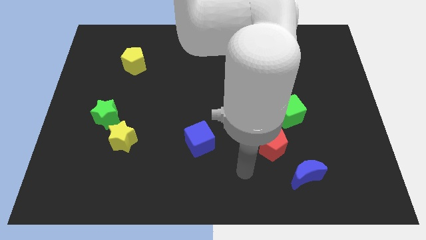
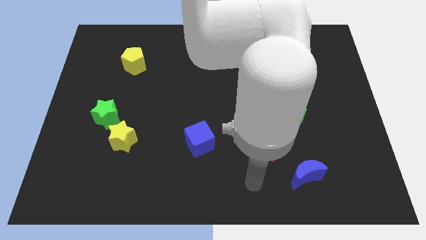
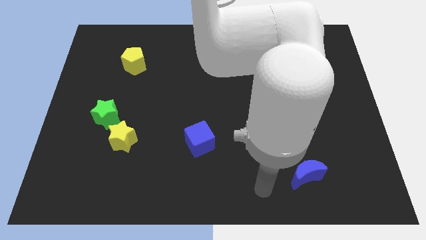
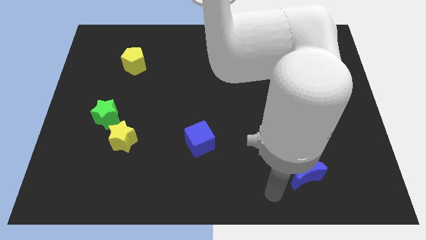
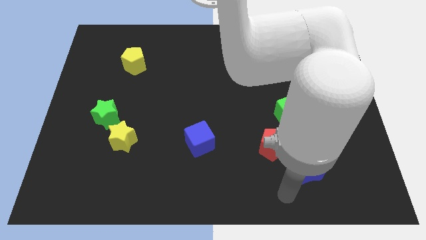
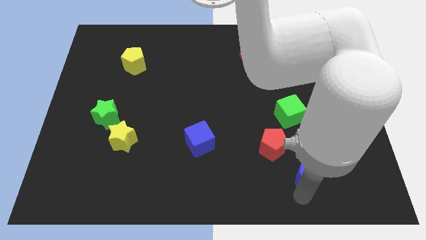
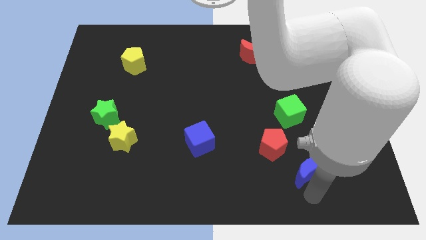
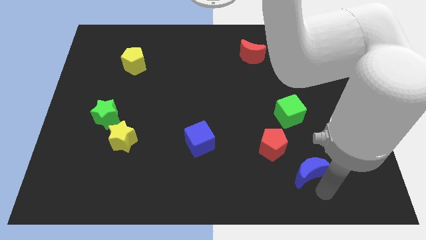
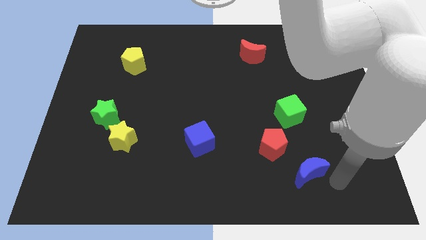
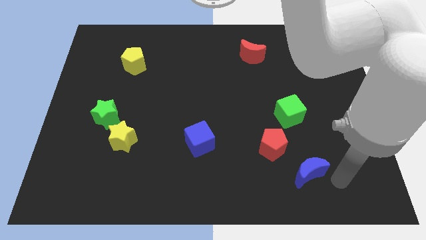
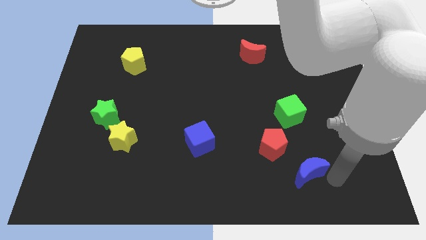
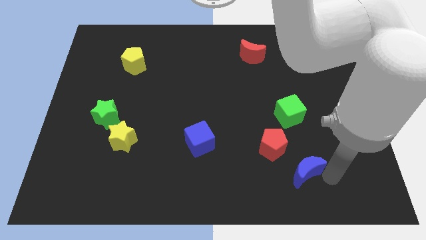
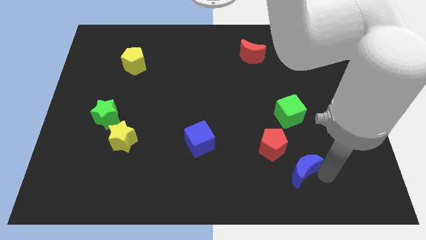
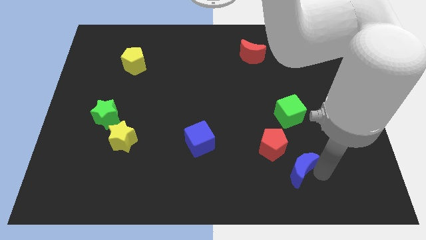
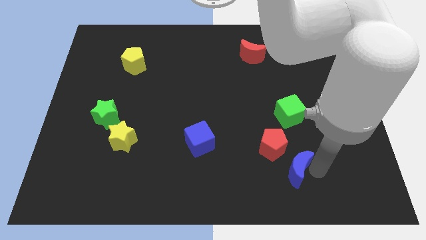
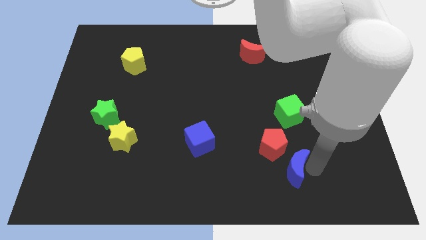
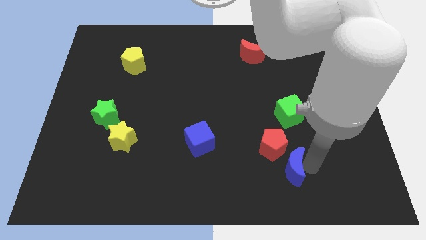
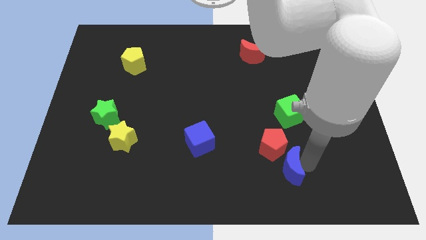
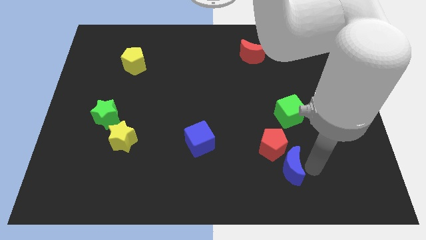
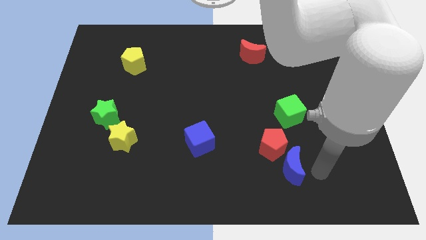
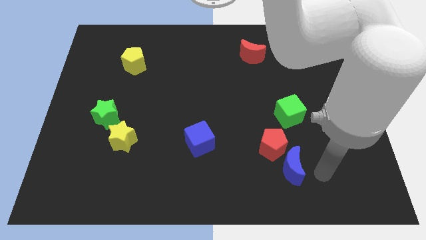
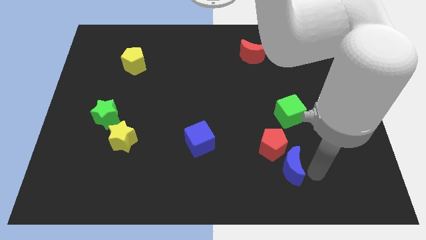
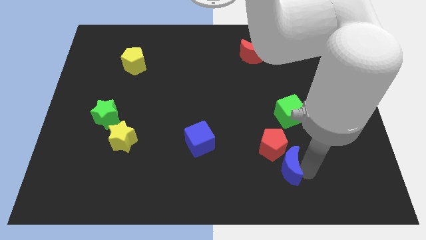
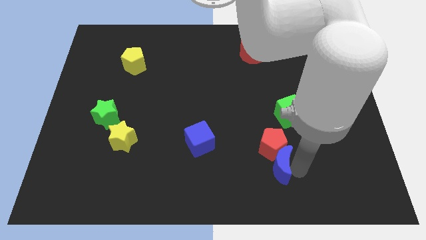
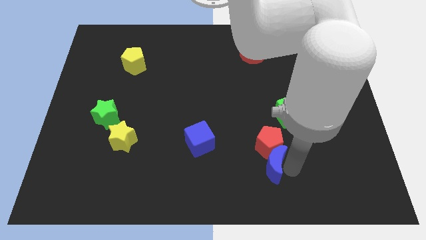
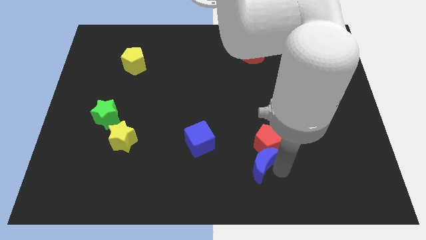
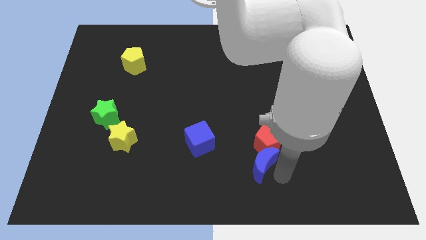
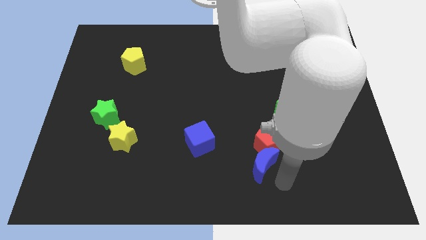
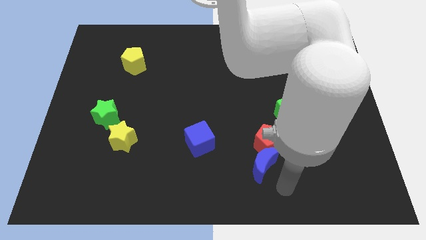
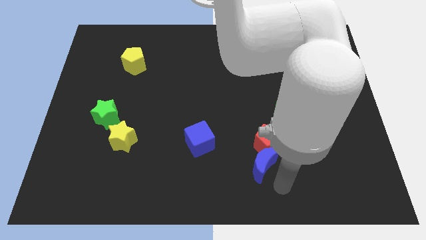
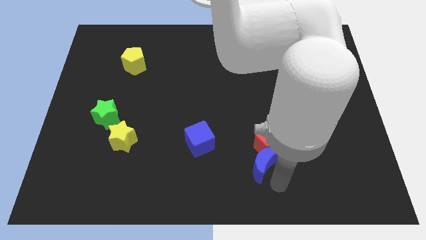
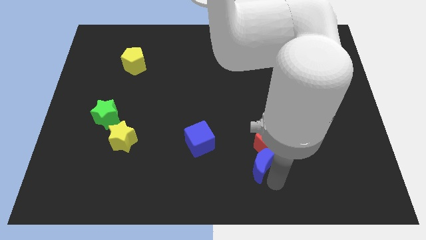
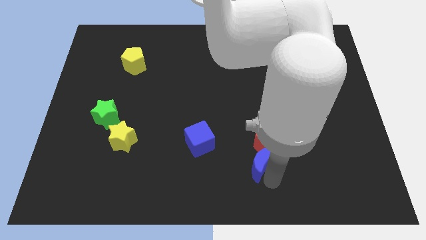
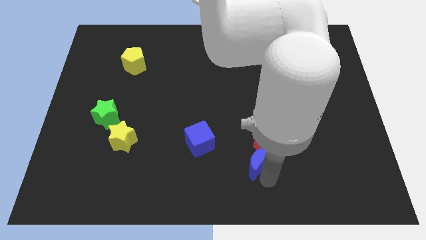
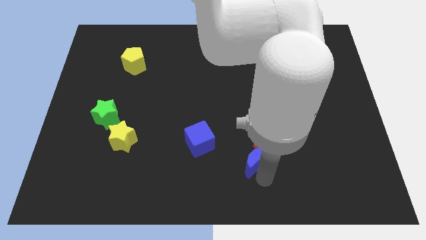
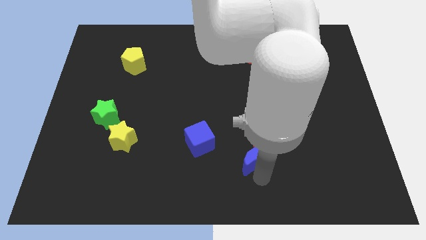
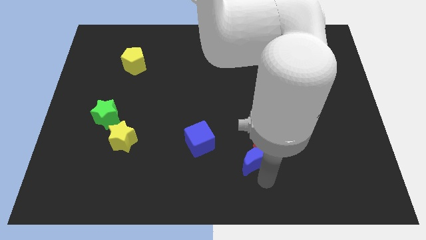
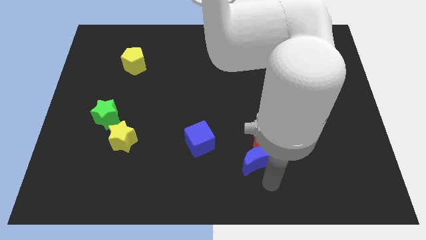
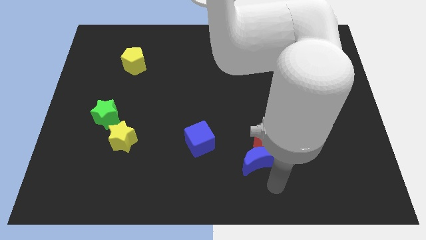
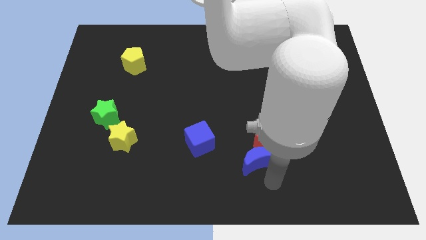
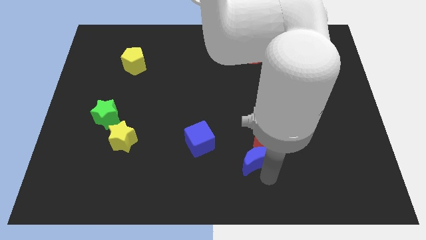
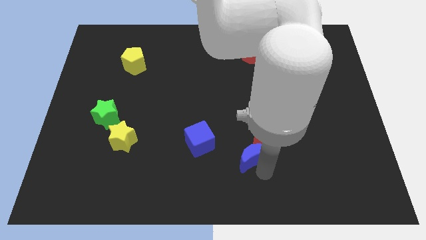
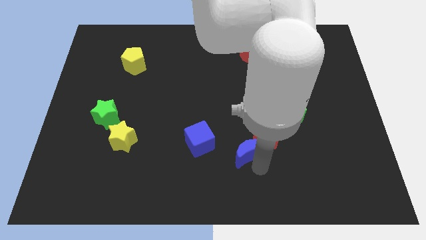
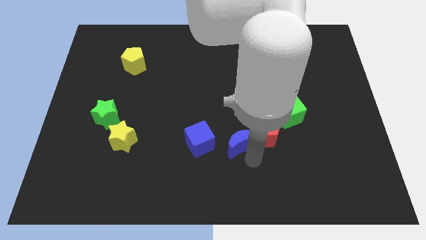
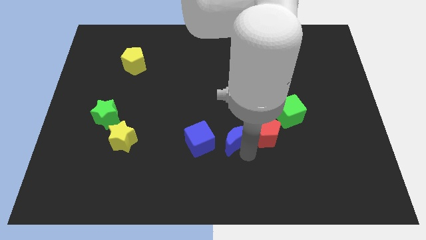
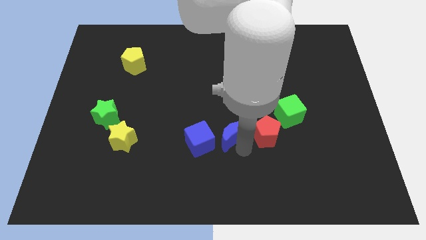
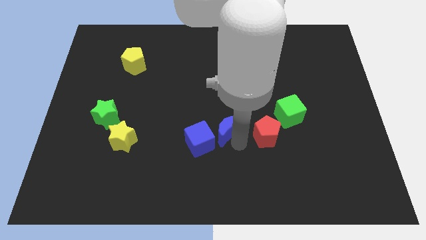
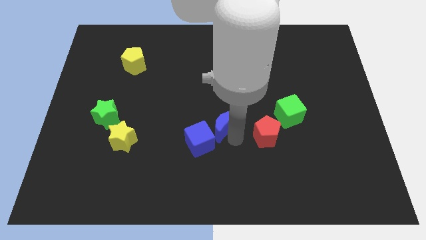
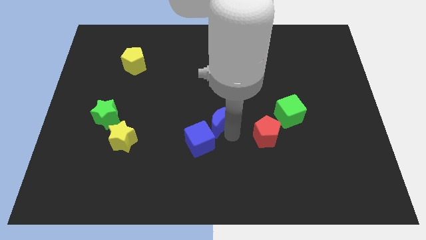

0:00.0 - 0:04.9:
put the blue moon to the top of the blue cube

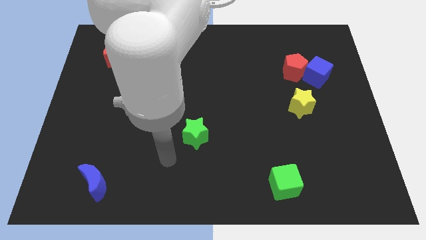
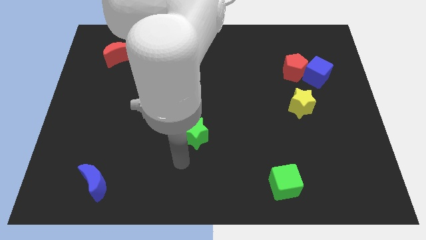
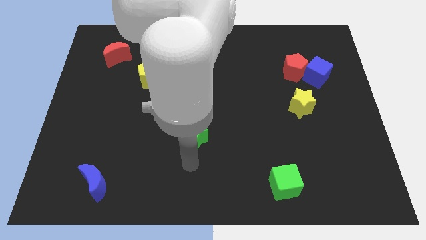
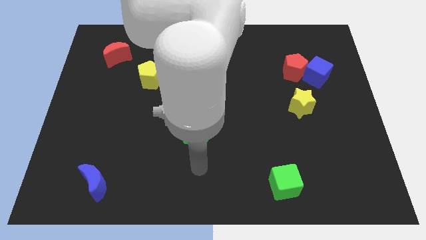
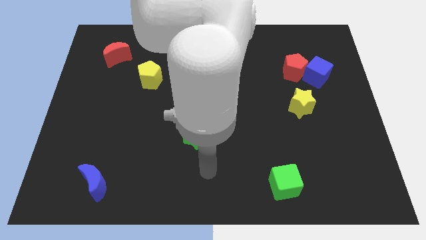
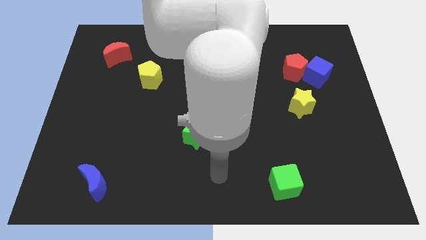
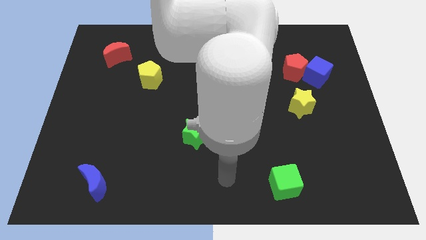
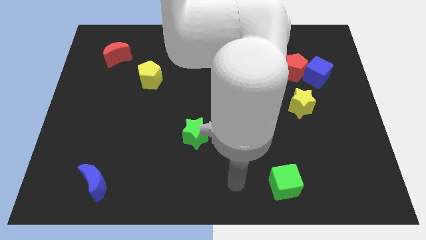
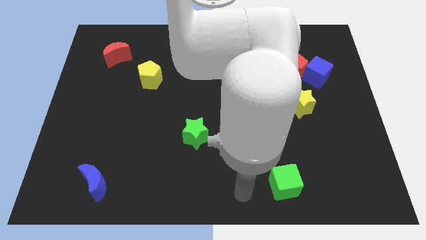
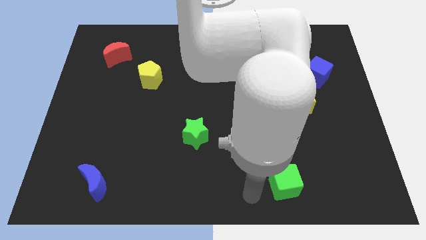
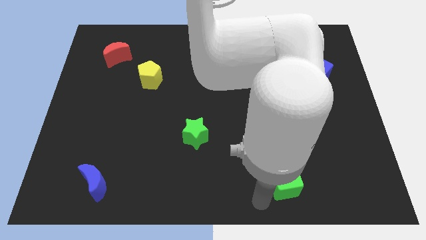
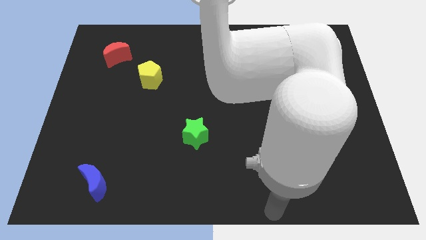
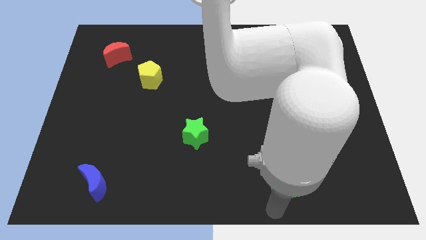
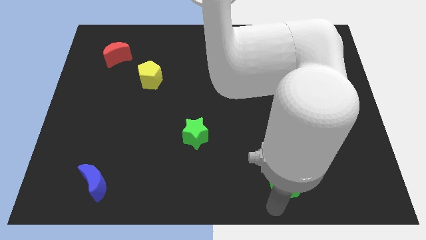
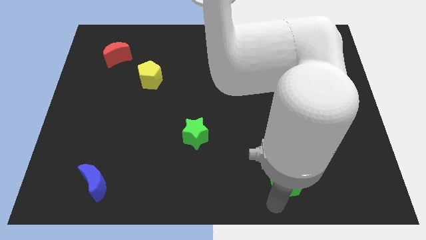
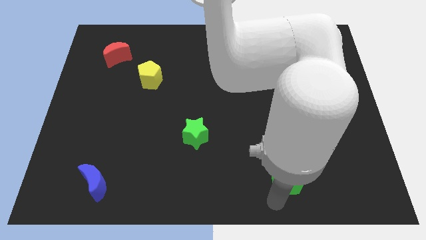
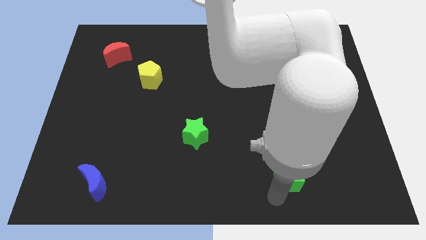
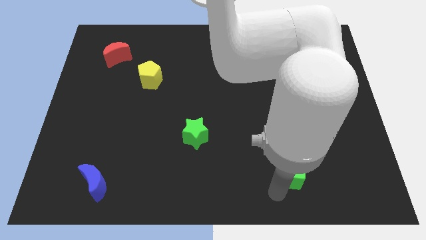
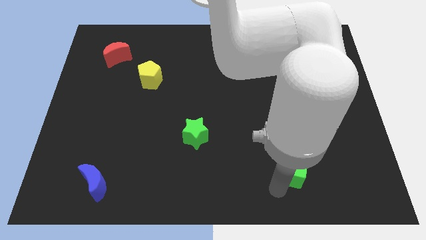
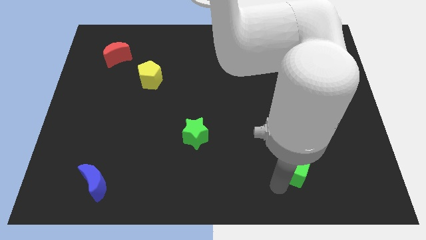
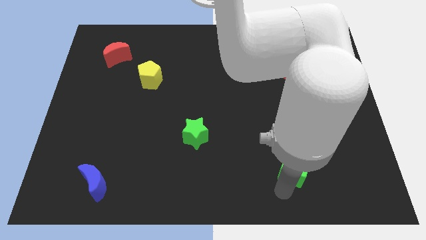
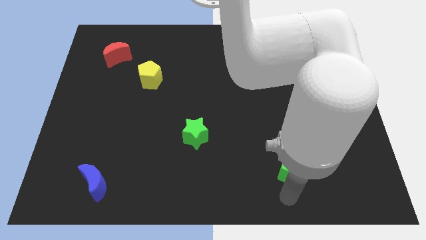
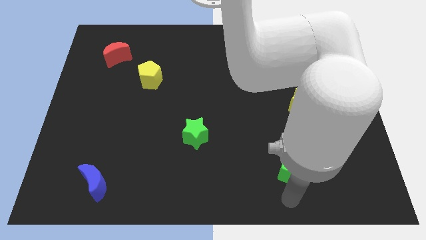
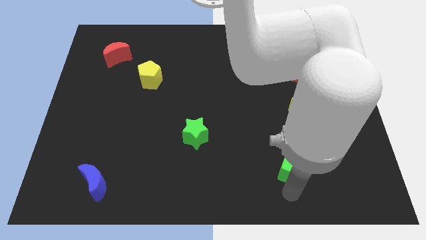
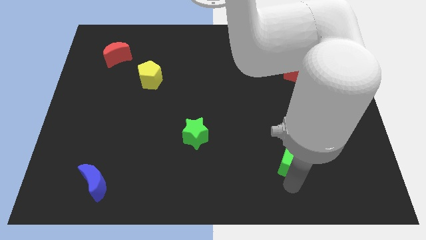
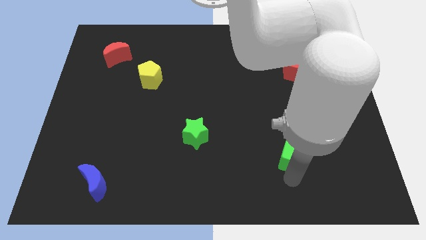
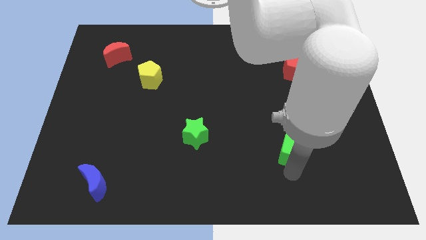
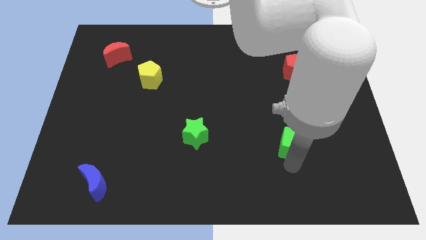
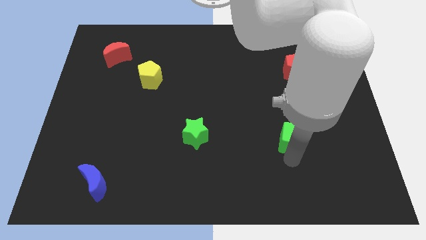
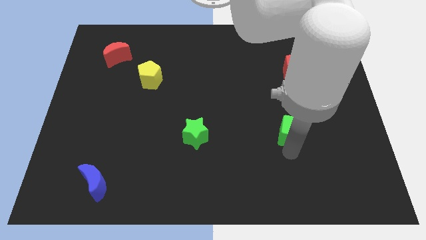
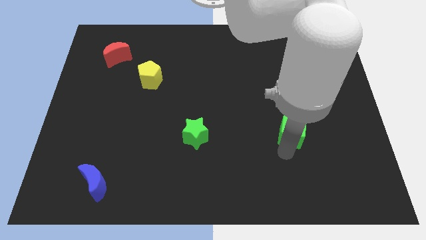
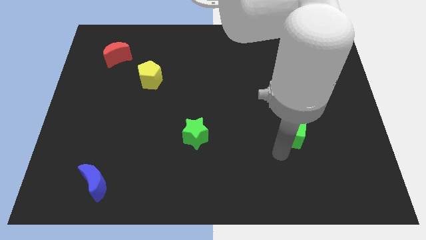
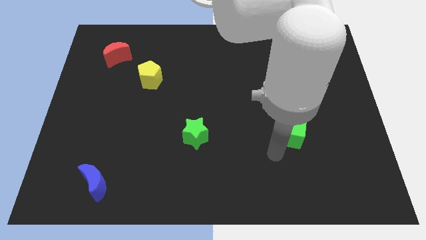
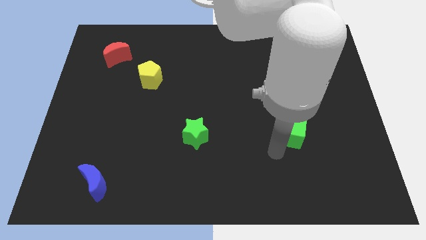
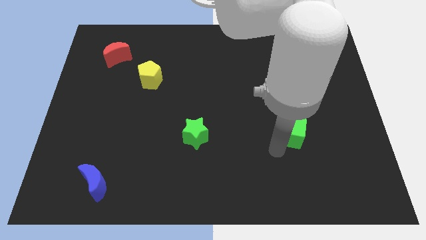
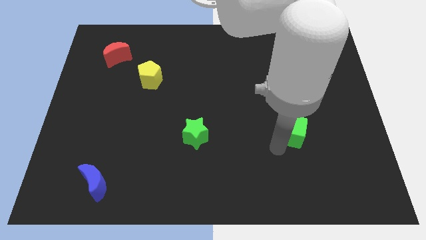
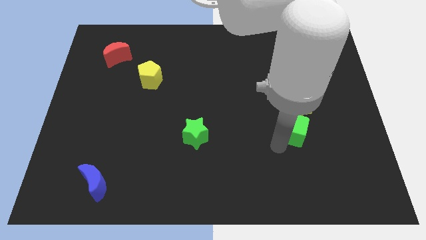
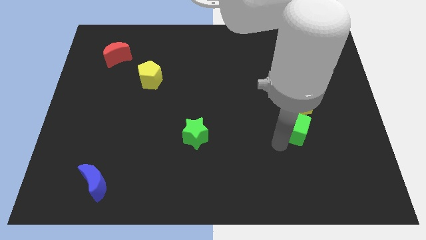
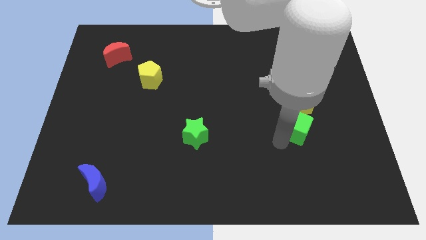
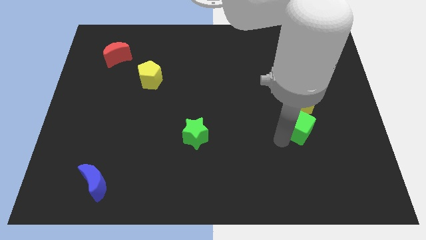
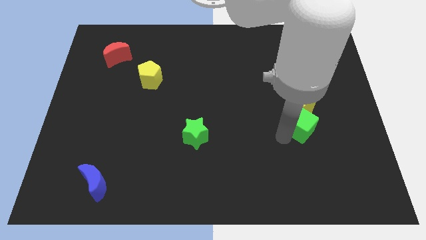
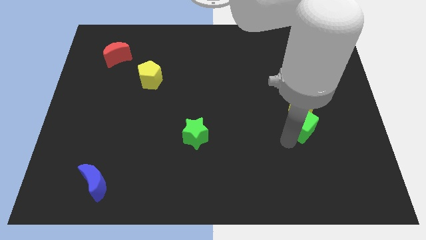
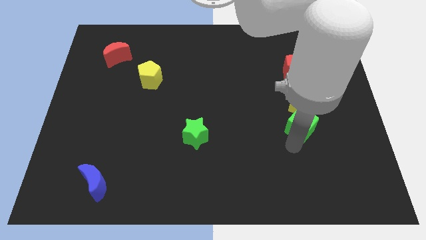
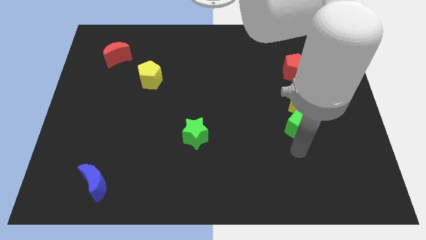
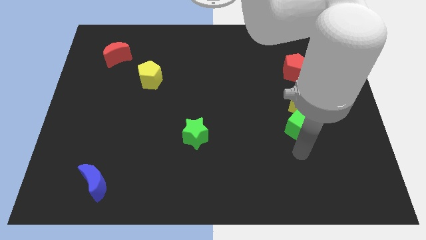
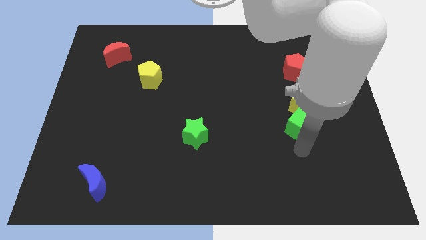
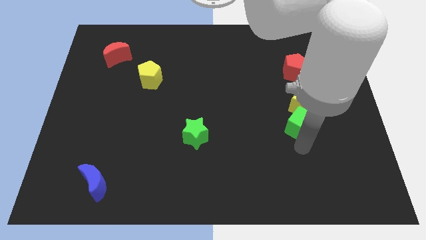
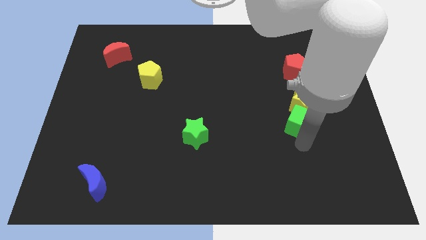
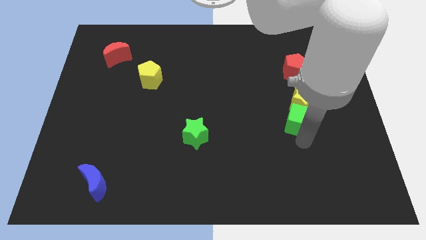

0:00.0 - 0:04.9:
push the green cube to the bottom side of the red pentagon
